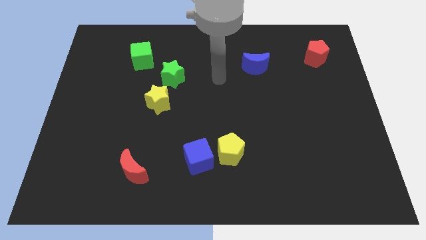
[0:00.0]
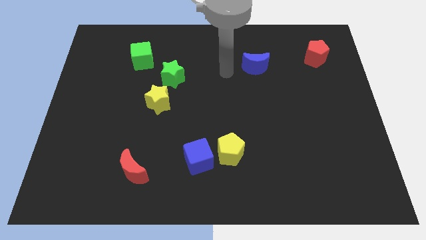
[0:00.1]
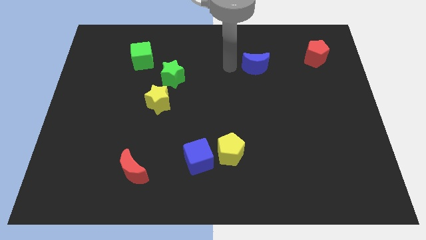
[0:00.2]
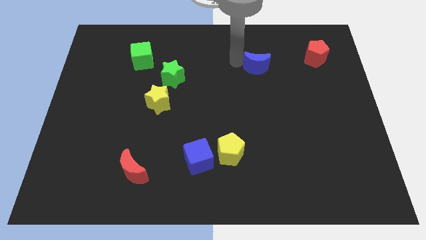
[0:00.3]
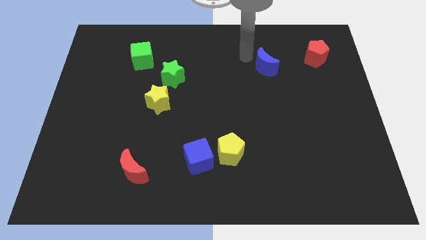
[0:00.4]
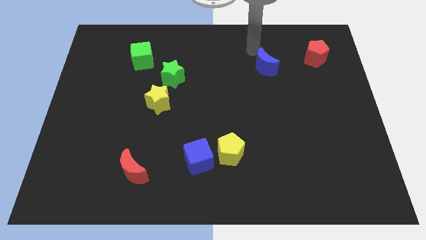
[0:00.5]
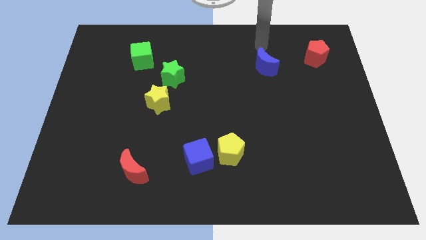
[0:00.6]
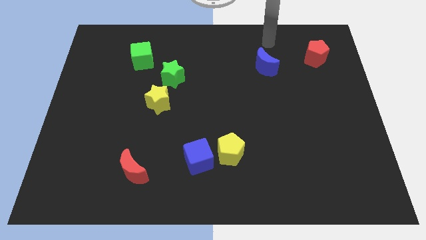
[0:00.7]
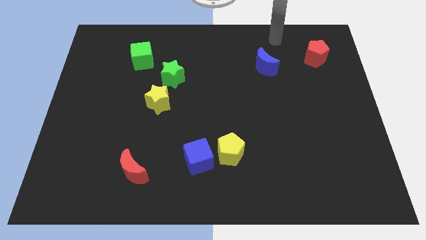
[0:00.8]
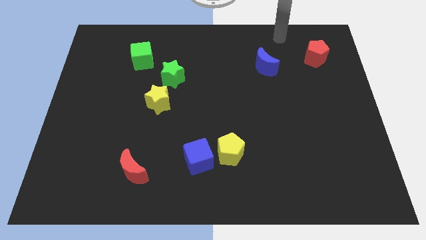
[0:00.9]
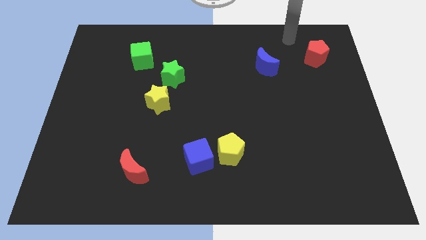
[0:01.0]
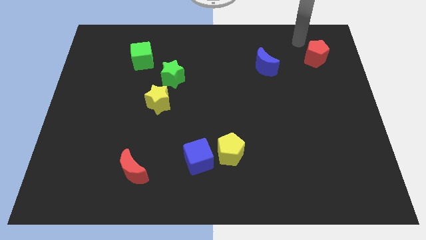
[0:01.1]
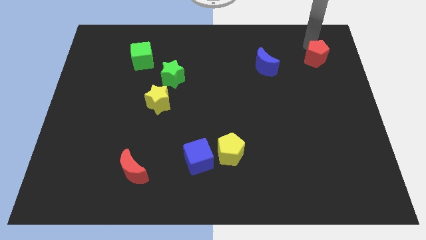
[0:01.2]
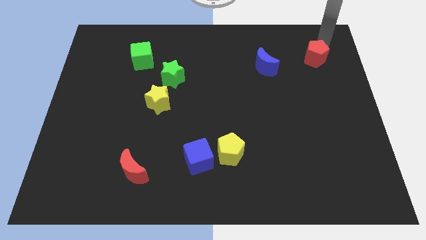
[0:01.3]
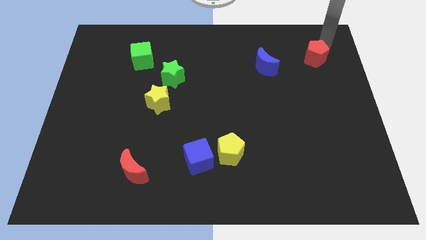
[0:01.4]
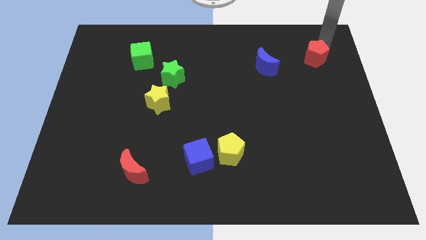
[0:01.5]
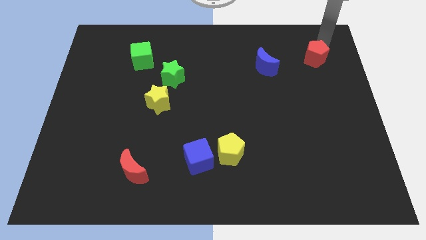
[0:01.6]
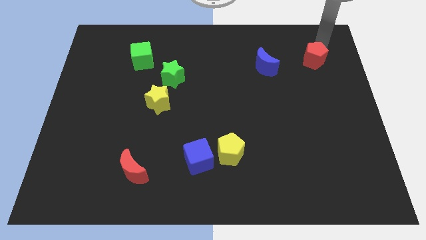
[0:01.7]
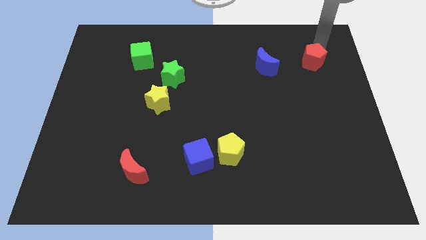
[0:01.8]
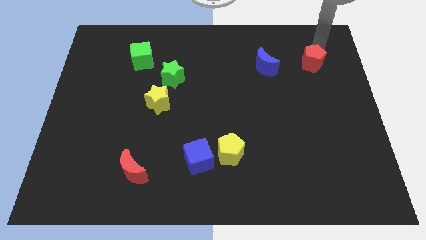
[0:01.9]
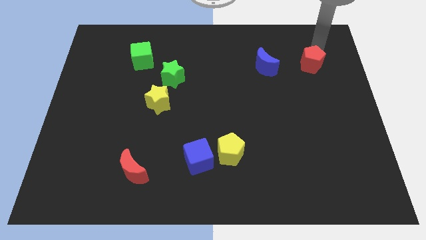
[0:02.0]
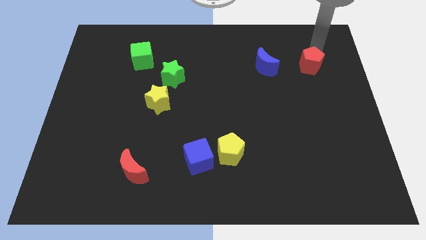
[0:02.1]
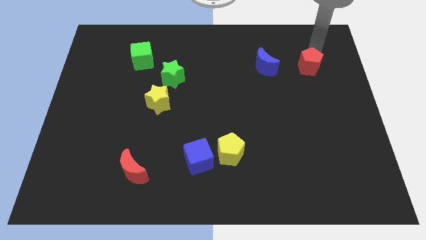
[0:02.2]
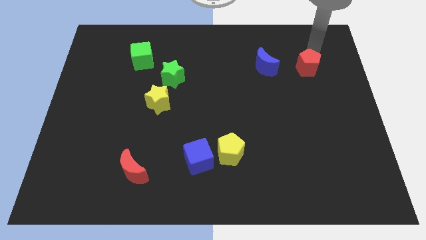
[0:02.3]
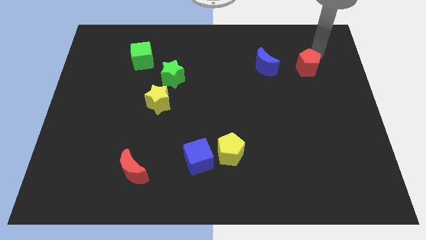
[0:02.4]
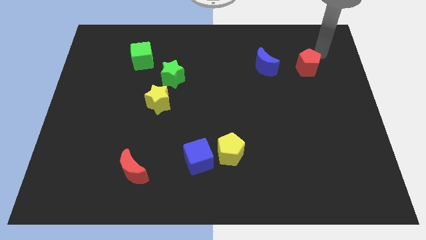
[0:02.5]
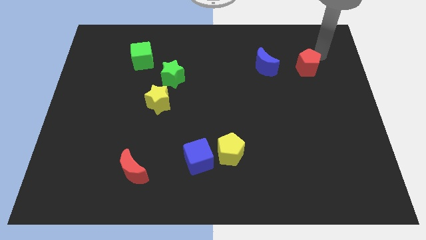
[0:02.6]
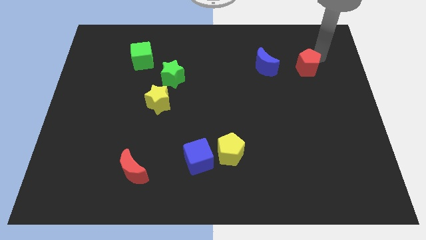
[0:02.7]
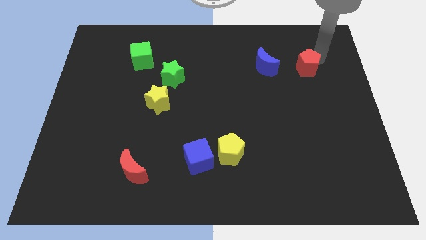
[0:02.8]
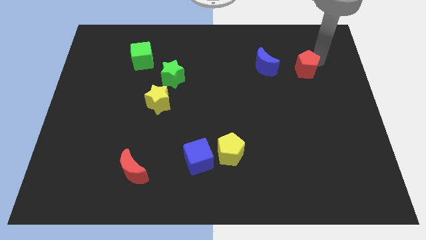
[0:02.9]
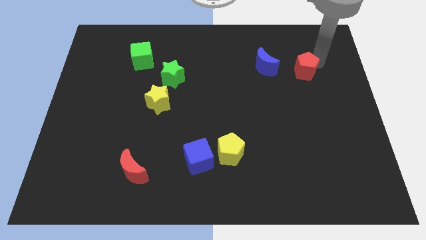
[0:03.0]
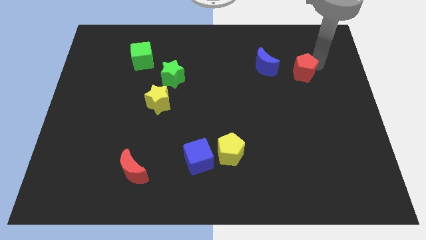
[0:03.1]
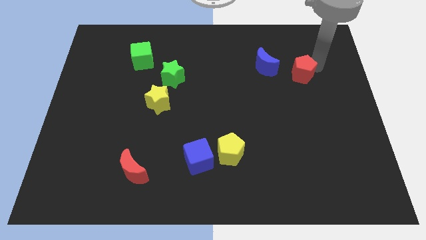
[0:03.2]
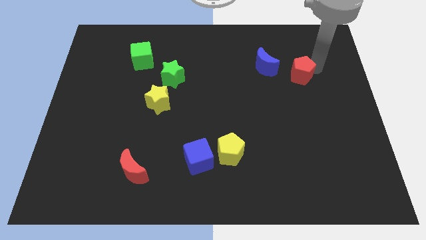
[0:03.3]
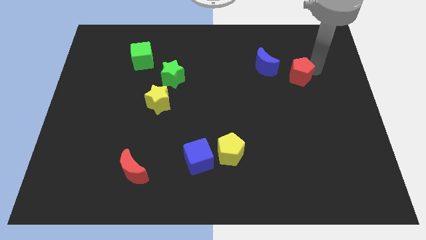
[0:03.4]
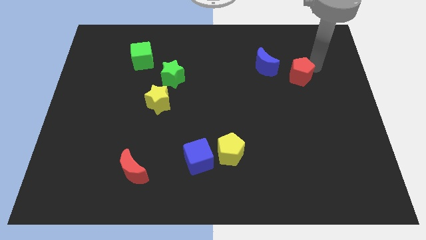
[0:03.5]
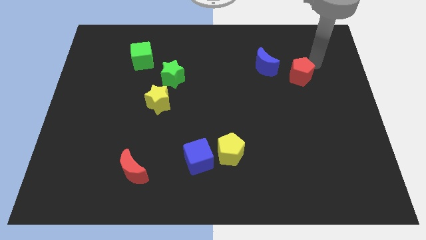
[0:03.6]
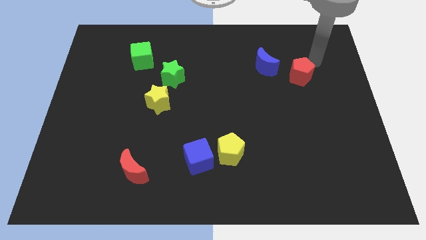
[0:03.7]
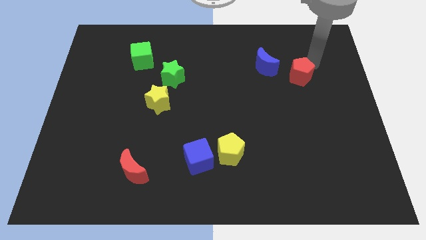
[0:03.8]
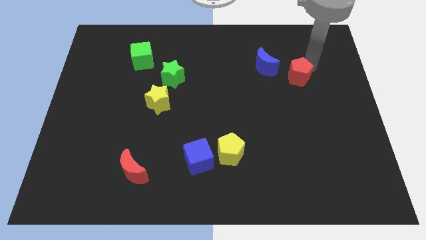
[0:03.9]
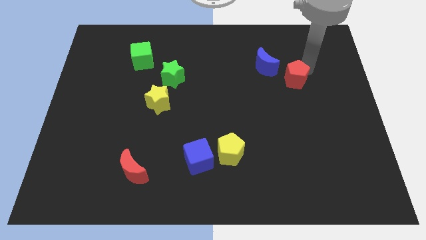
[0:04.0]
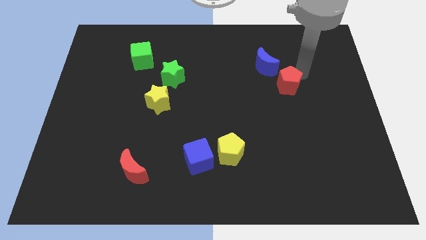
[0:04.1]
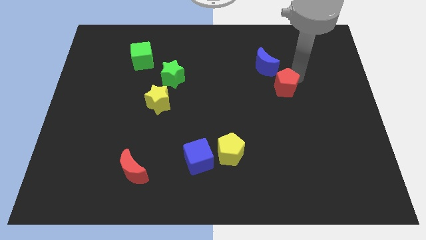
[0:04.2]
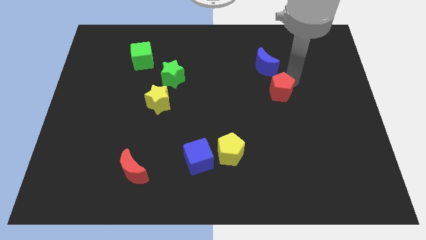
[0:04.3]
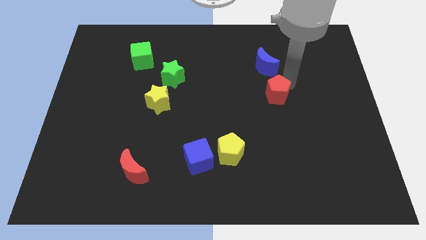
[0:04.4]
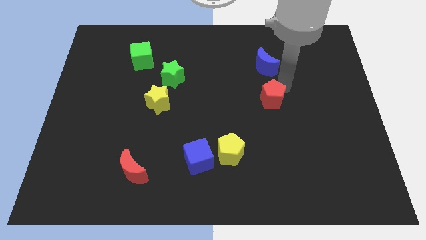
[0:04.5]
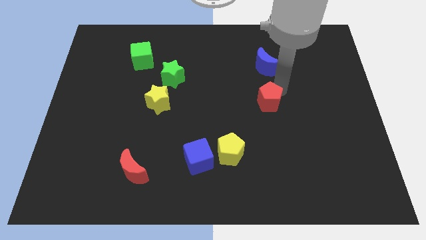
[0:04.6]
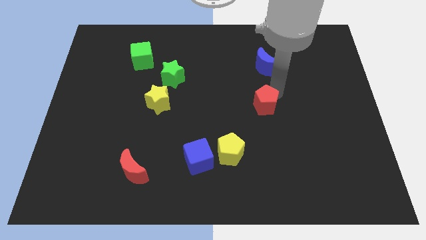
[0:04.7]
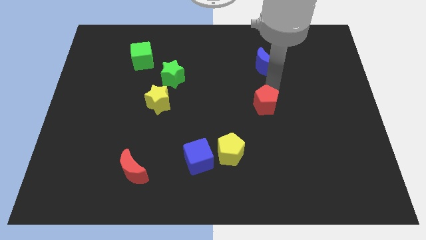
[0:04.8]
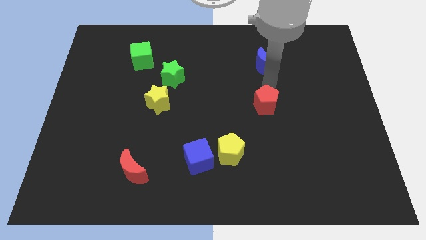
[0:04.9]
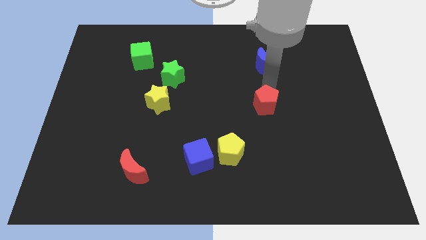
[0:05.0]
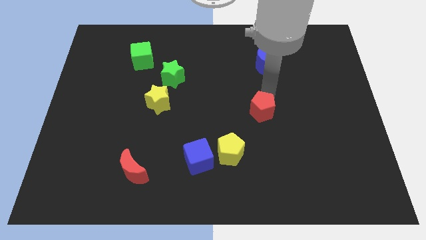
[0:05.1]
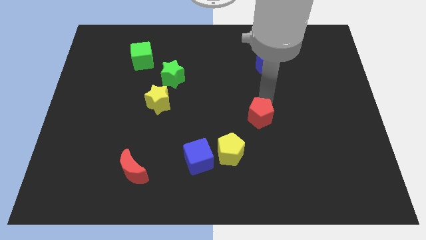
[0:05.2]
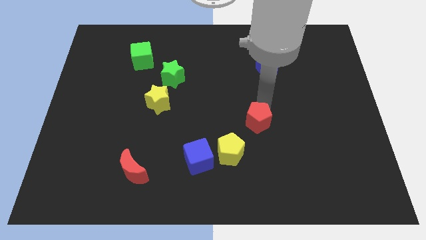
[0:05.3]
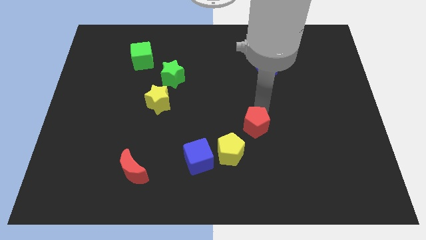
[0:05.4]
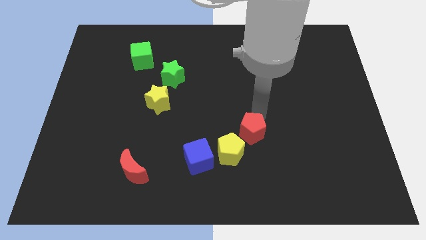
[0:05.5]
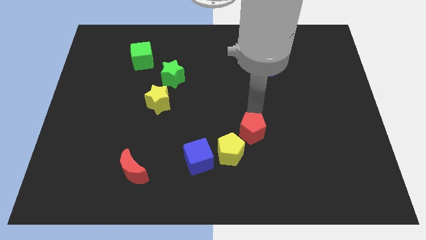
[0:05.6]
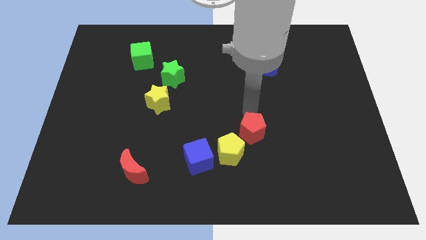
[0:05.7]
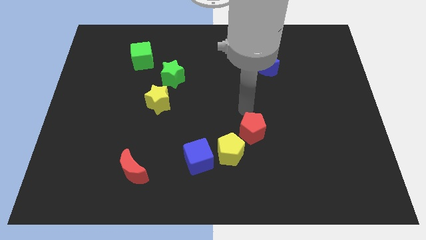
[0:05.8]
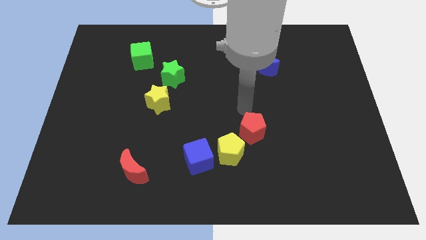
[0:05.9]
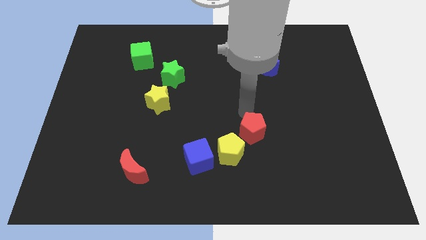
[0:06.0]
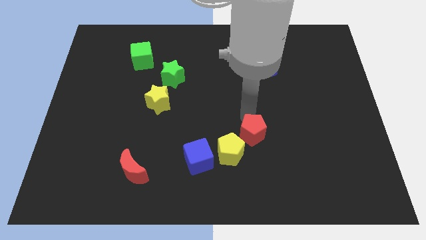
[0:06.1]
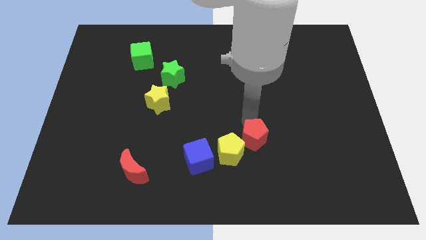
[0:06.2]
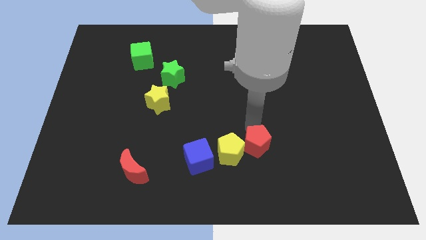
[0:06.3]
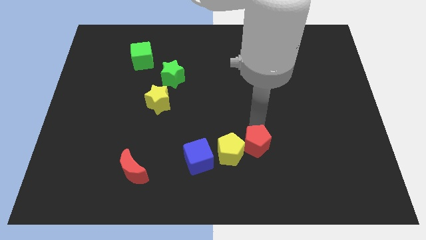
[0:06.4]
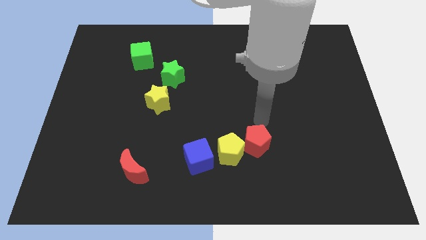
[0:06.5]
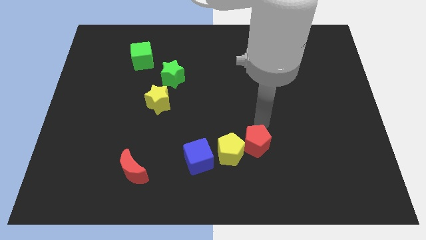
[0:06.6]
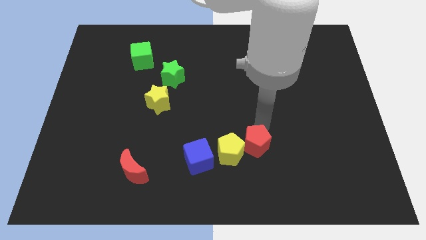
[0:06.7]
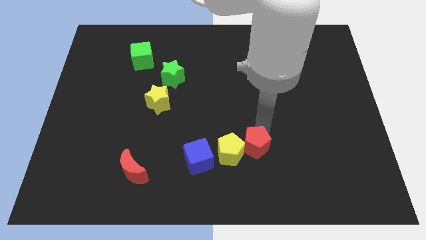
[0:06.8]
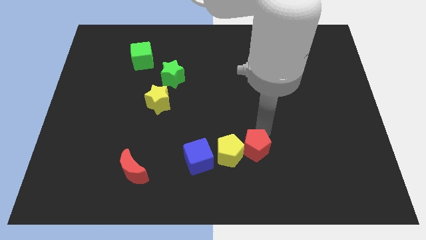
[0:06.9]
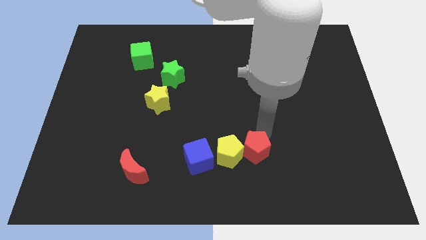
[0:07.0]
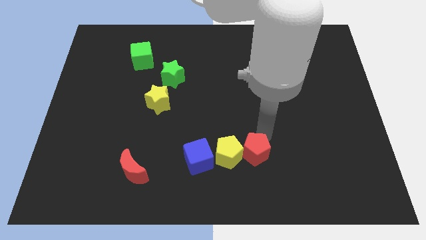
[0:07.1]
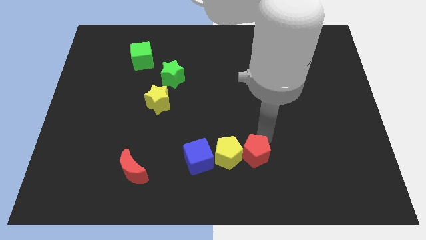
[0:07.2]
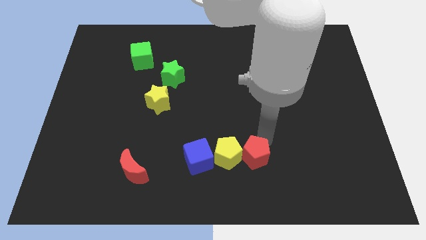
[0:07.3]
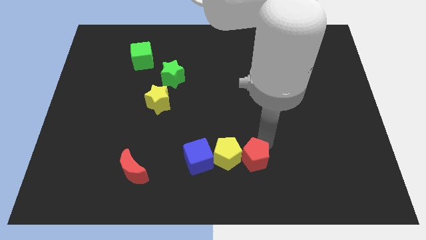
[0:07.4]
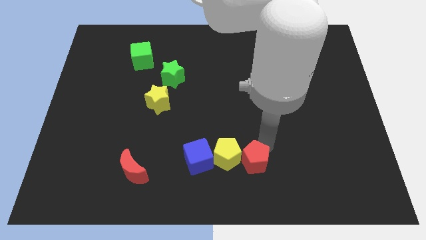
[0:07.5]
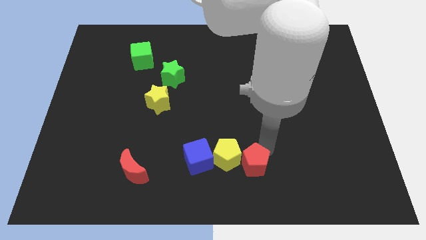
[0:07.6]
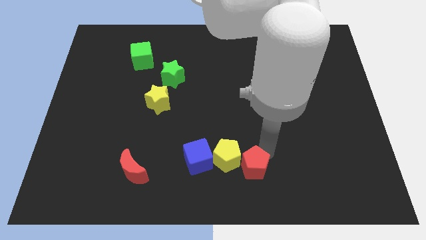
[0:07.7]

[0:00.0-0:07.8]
move the red pentagon to the bottom
